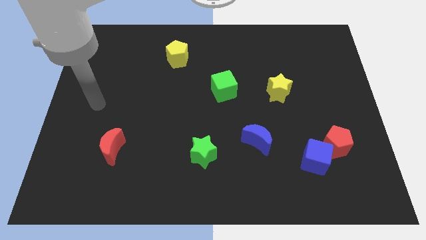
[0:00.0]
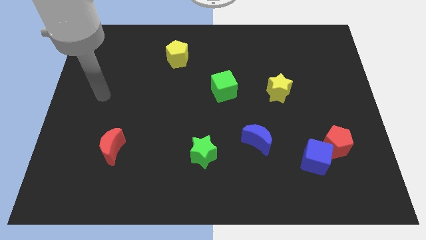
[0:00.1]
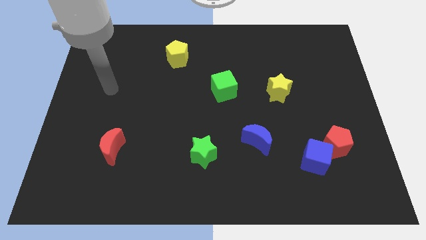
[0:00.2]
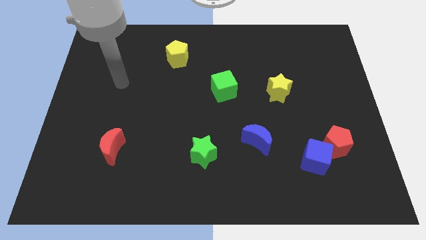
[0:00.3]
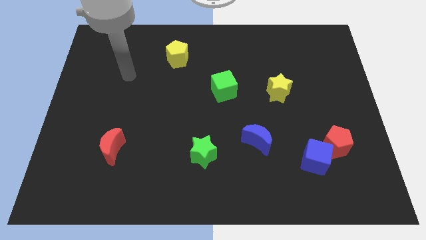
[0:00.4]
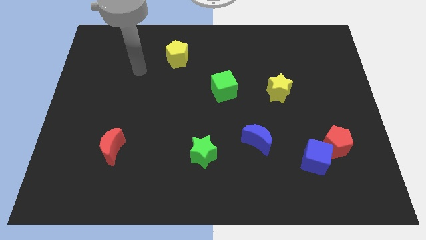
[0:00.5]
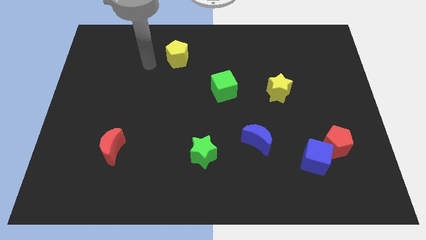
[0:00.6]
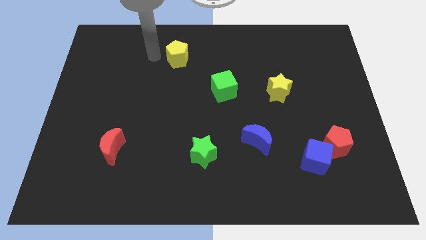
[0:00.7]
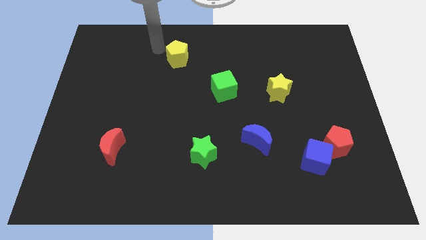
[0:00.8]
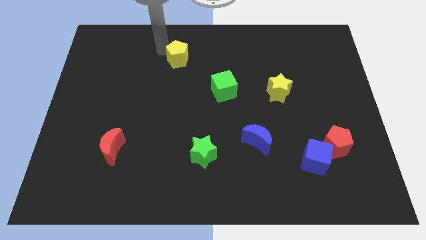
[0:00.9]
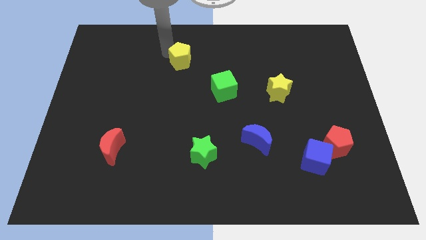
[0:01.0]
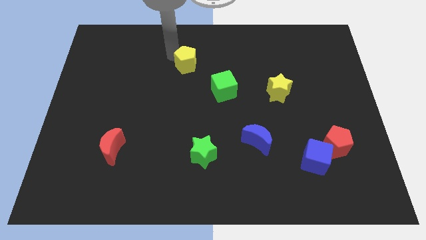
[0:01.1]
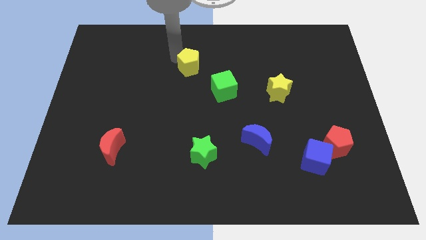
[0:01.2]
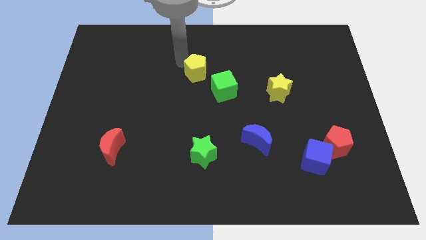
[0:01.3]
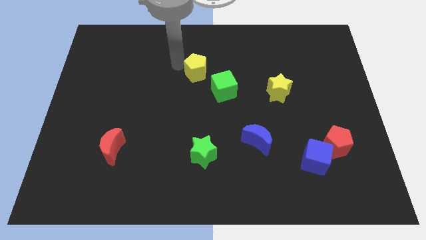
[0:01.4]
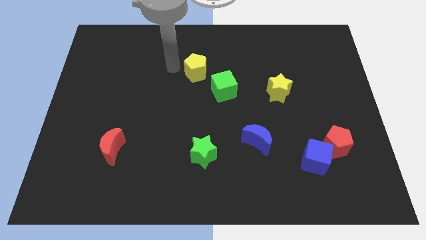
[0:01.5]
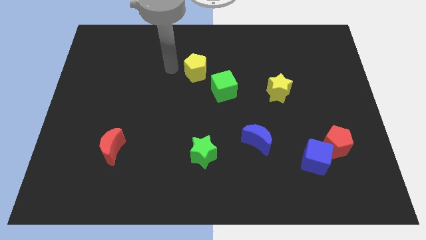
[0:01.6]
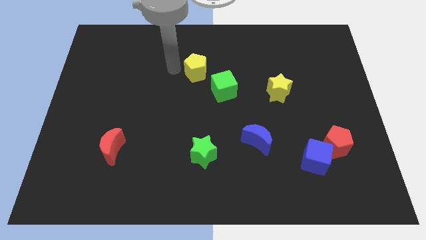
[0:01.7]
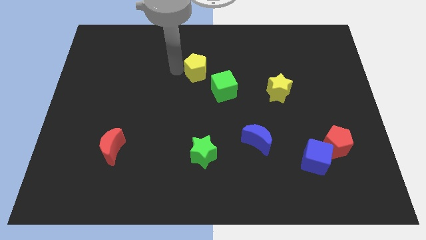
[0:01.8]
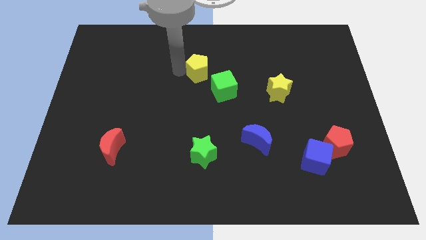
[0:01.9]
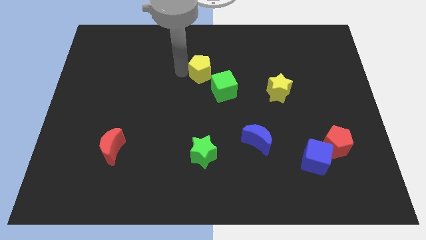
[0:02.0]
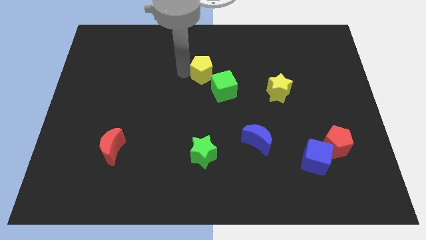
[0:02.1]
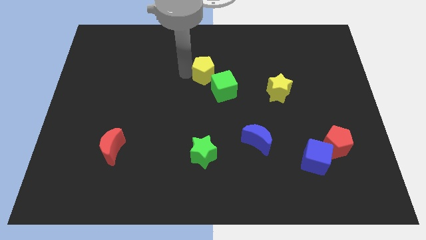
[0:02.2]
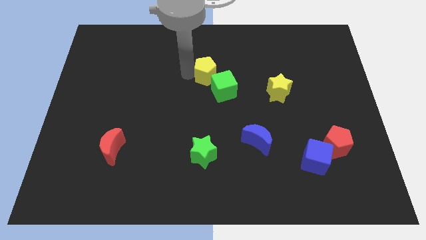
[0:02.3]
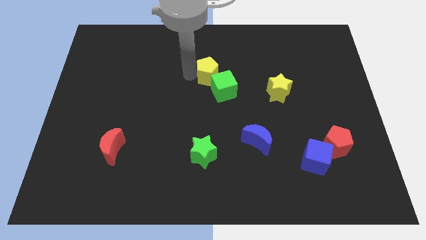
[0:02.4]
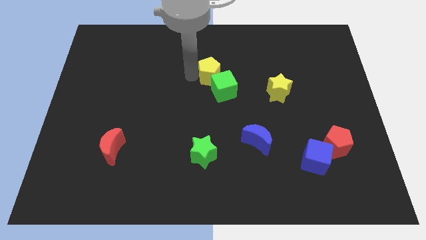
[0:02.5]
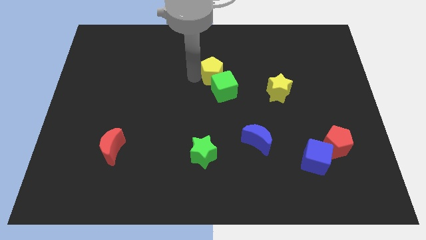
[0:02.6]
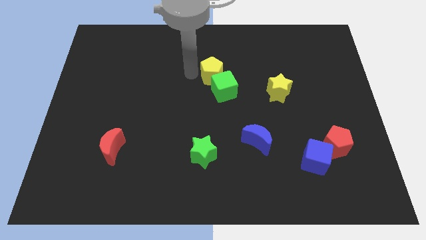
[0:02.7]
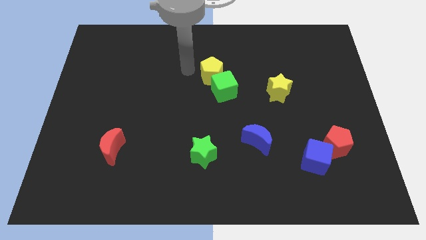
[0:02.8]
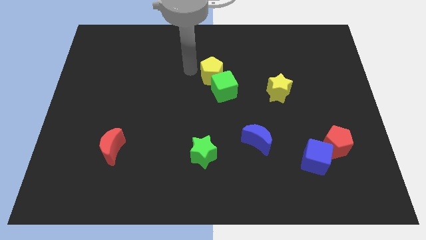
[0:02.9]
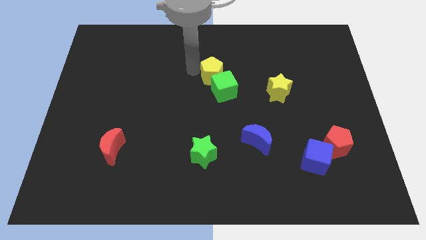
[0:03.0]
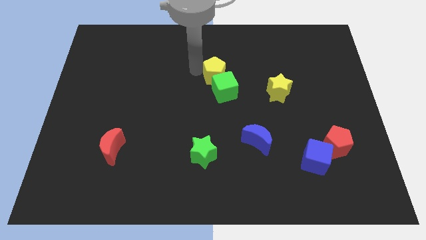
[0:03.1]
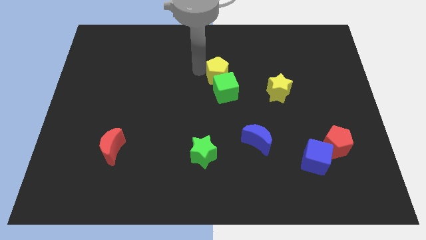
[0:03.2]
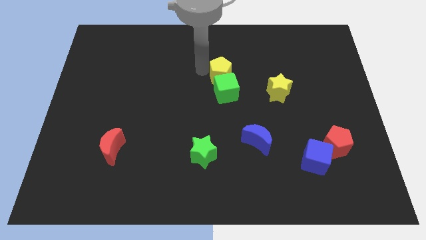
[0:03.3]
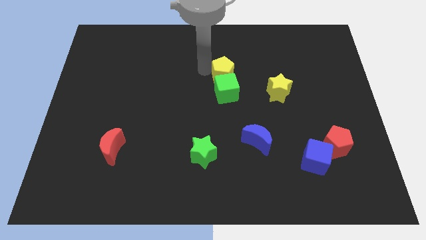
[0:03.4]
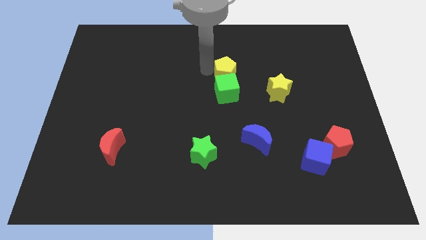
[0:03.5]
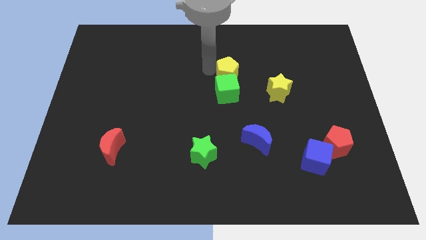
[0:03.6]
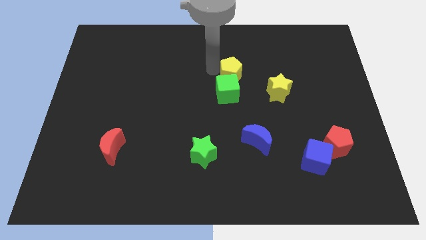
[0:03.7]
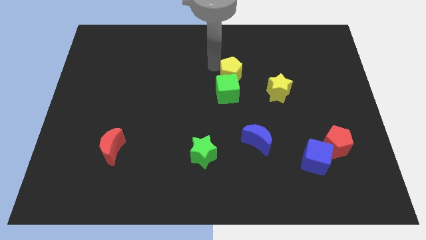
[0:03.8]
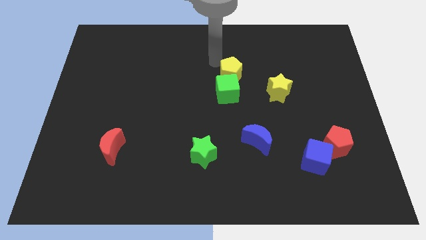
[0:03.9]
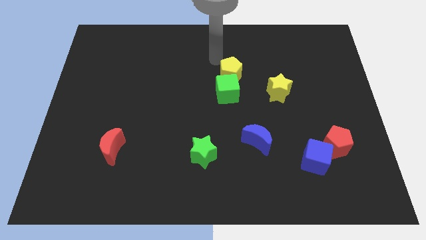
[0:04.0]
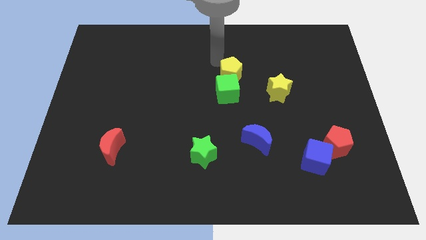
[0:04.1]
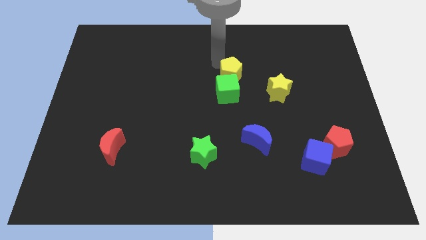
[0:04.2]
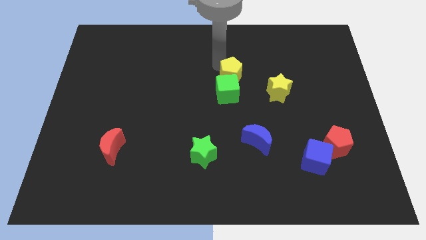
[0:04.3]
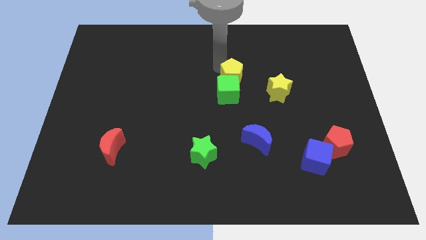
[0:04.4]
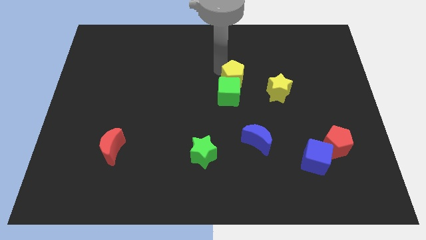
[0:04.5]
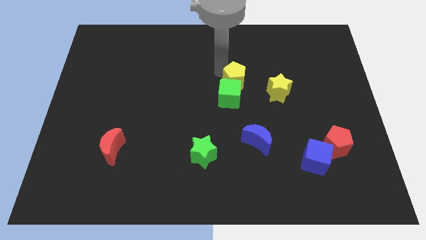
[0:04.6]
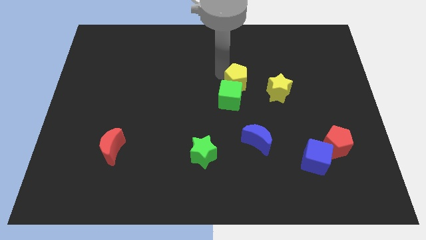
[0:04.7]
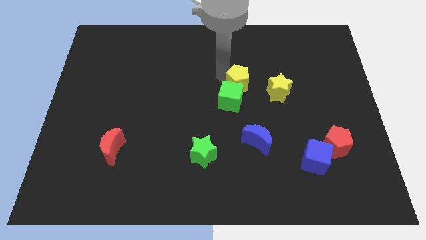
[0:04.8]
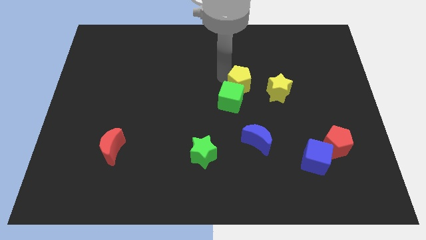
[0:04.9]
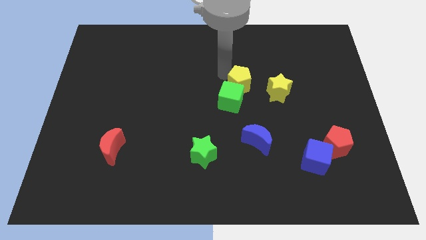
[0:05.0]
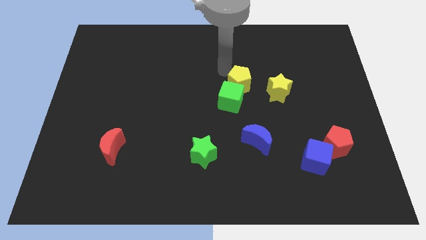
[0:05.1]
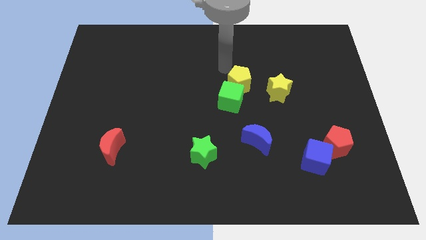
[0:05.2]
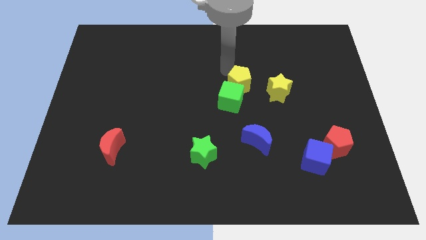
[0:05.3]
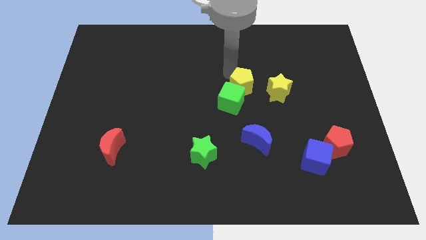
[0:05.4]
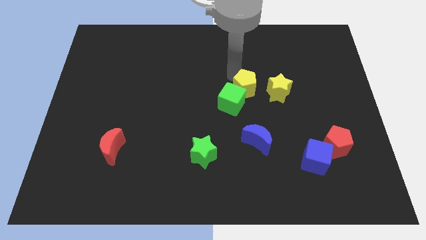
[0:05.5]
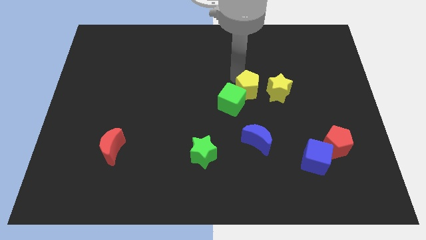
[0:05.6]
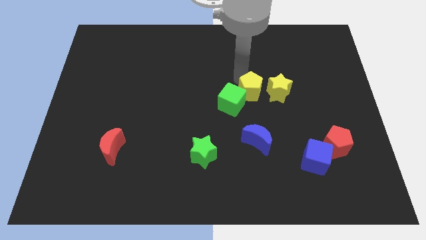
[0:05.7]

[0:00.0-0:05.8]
slide the yellow pentagon diagonally down and right

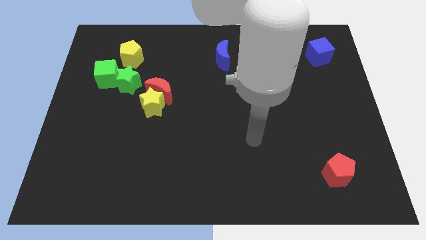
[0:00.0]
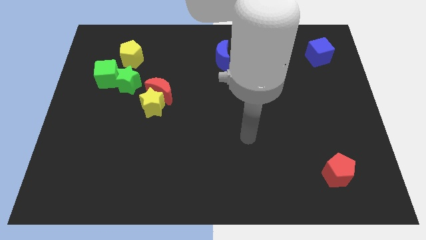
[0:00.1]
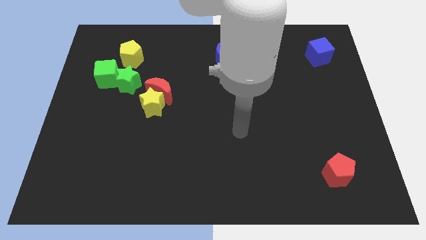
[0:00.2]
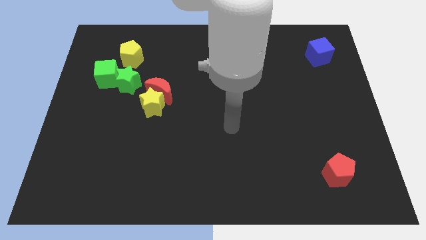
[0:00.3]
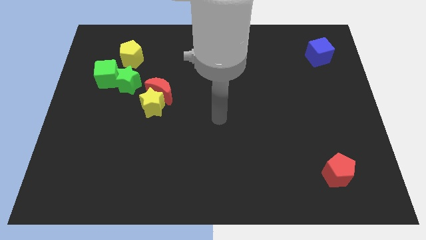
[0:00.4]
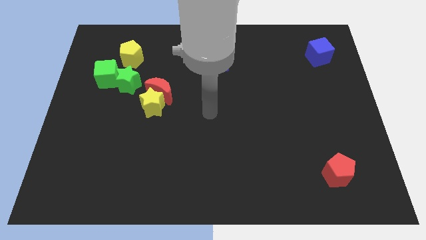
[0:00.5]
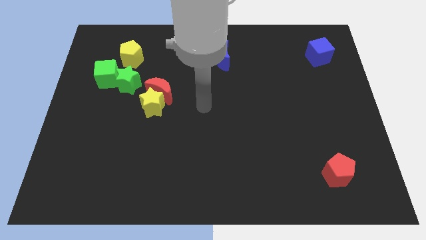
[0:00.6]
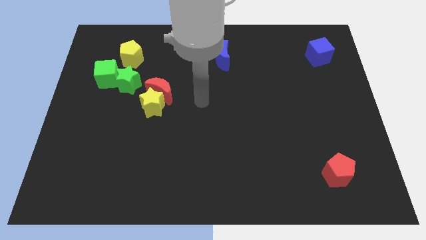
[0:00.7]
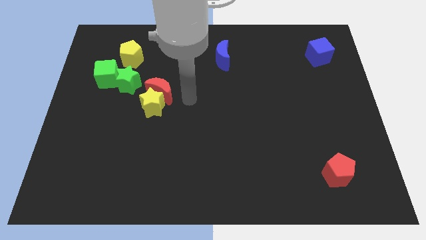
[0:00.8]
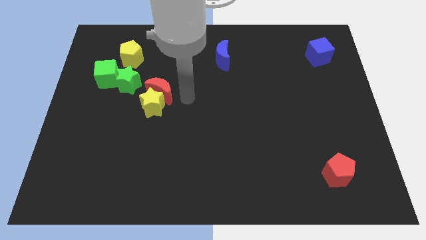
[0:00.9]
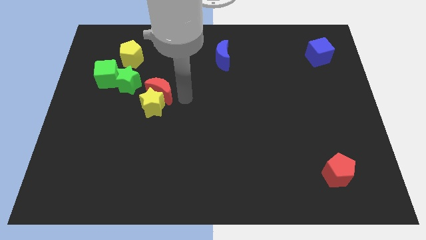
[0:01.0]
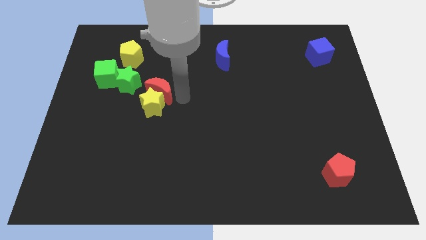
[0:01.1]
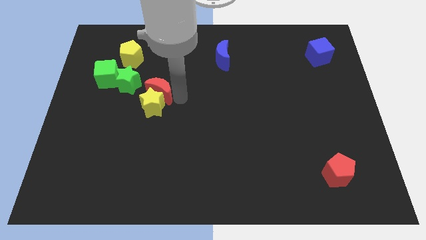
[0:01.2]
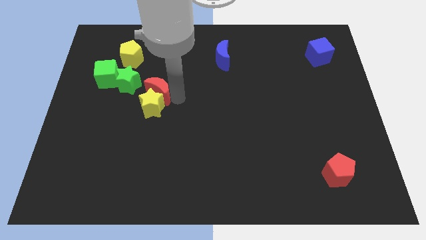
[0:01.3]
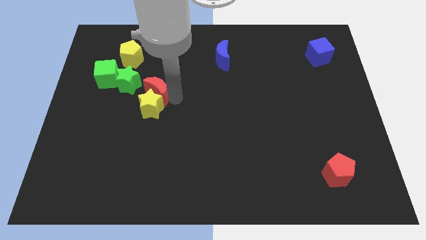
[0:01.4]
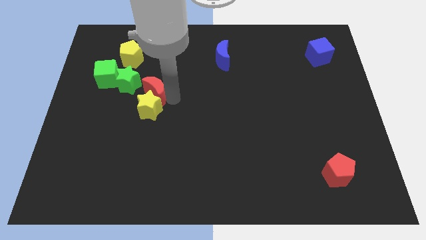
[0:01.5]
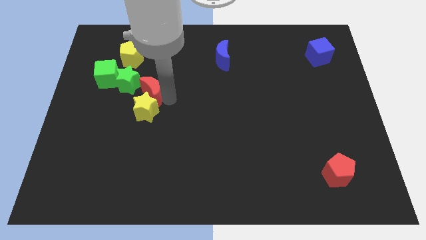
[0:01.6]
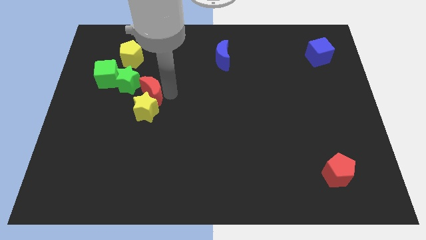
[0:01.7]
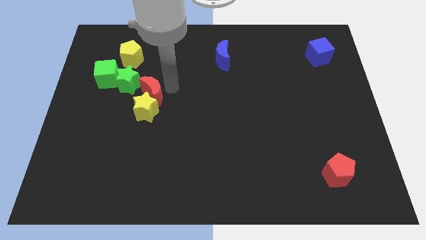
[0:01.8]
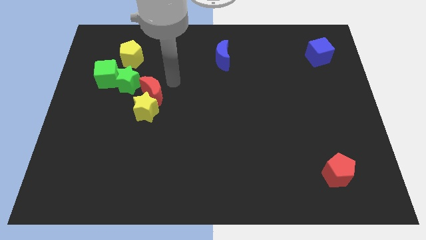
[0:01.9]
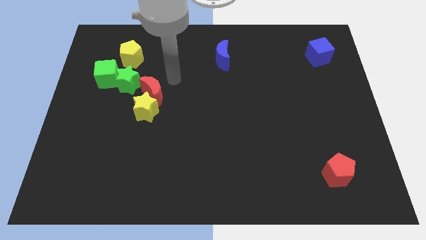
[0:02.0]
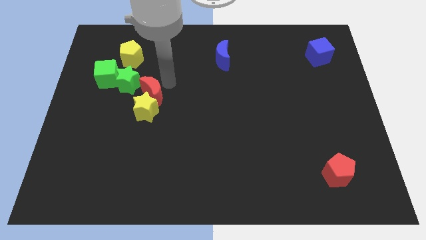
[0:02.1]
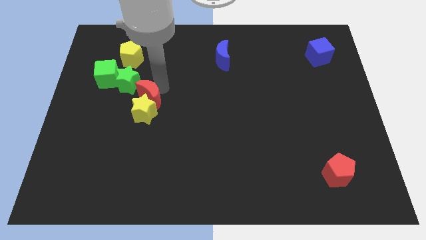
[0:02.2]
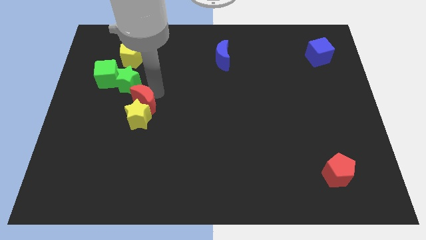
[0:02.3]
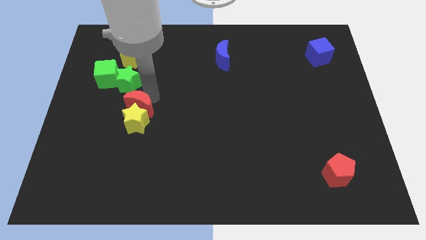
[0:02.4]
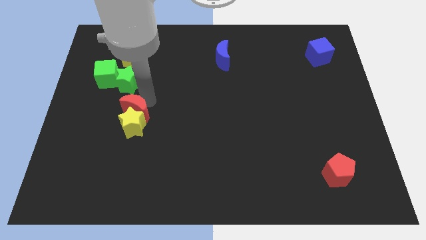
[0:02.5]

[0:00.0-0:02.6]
push the red moon diagonally down and left a bit
